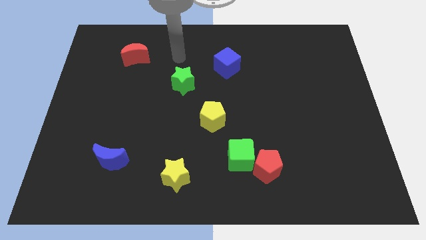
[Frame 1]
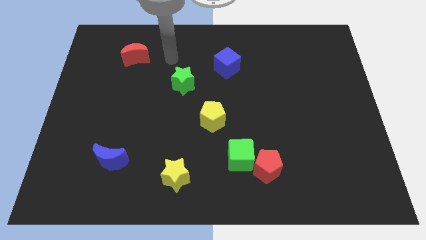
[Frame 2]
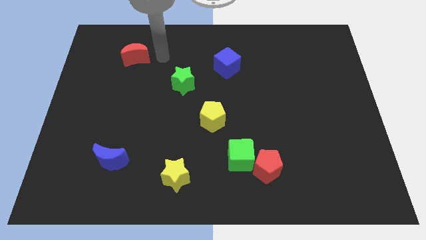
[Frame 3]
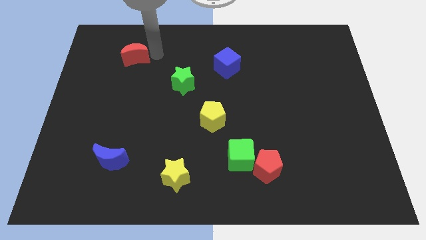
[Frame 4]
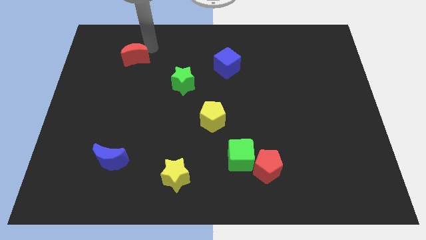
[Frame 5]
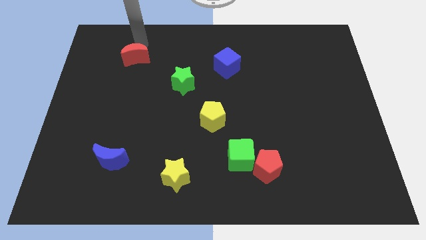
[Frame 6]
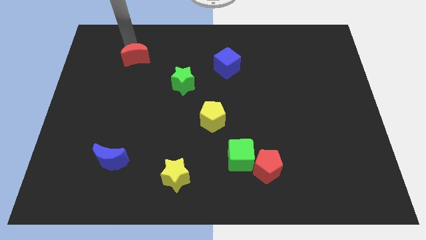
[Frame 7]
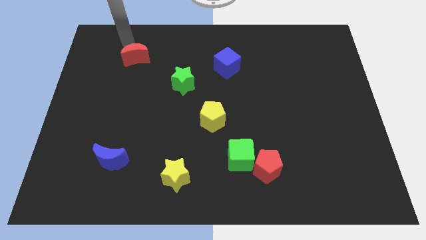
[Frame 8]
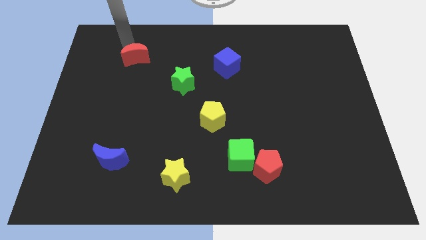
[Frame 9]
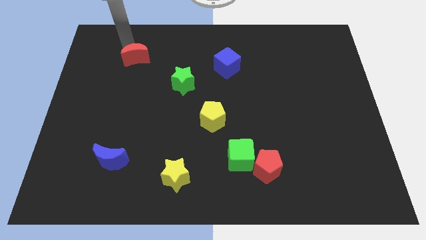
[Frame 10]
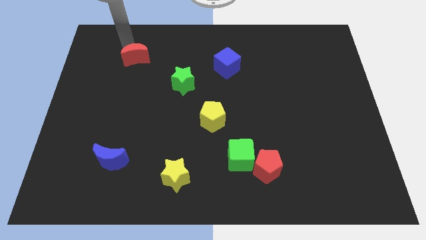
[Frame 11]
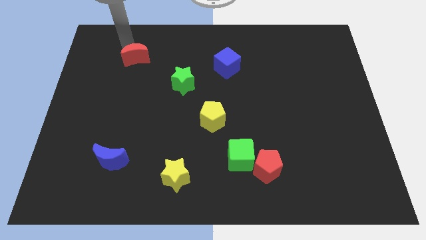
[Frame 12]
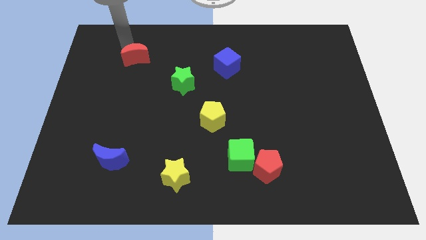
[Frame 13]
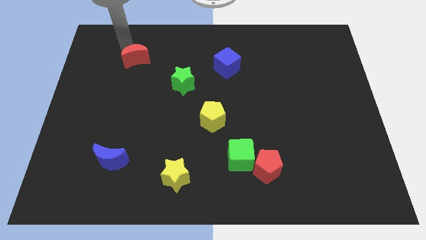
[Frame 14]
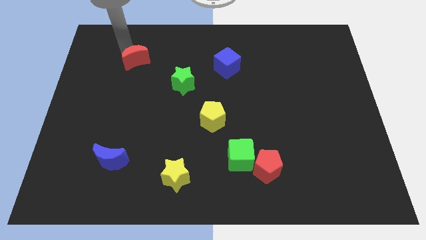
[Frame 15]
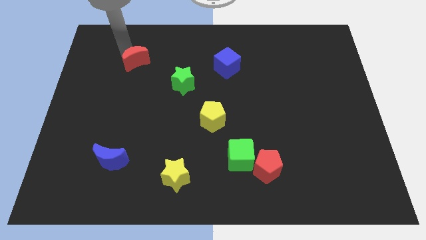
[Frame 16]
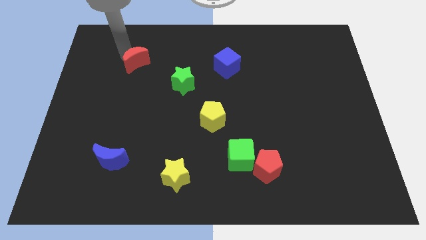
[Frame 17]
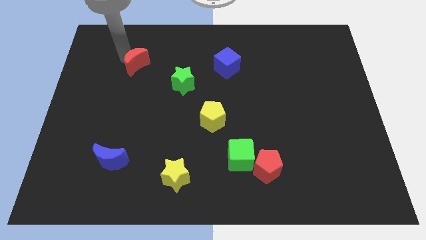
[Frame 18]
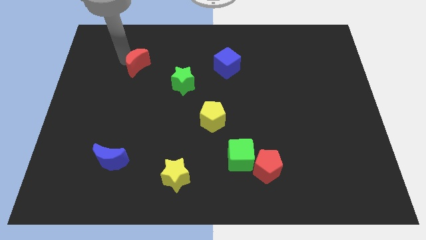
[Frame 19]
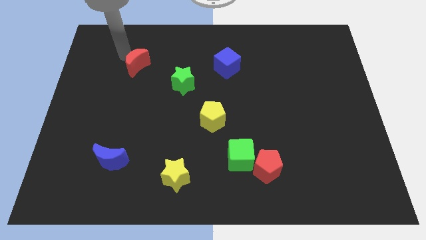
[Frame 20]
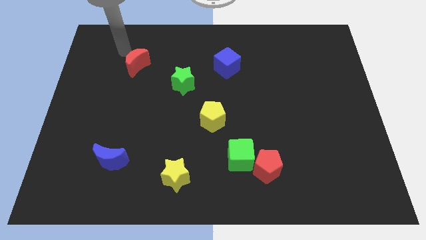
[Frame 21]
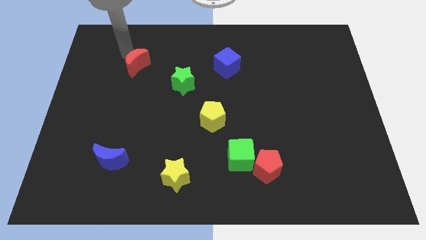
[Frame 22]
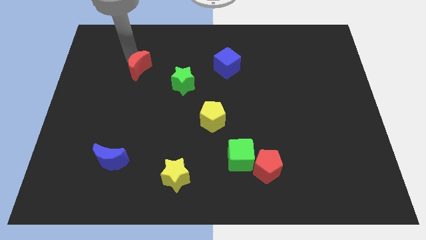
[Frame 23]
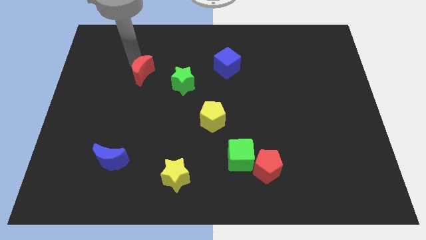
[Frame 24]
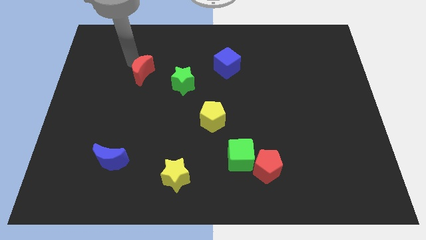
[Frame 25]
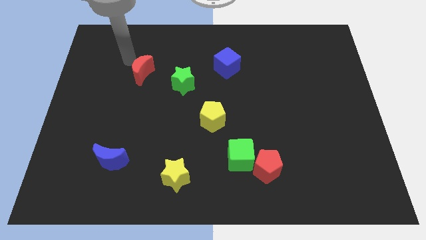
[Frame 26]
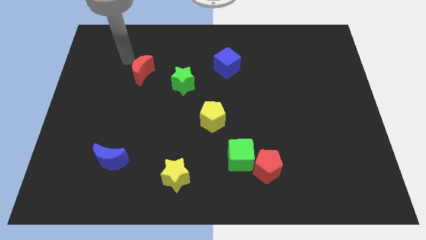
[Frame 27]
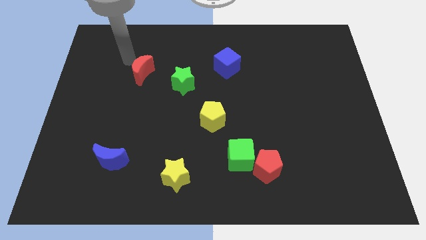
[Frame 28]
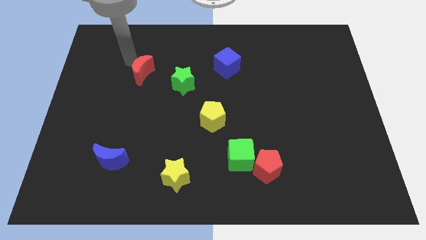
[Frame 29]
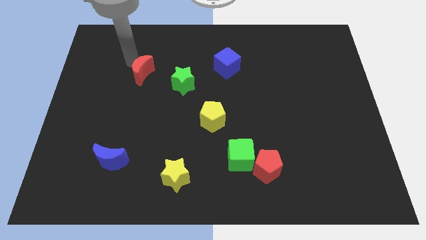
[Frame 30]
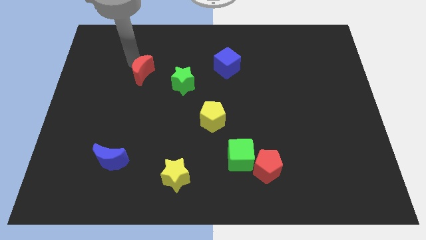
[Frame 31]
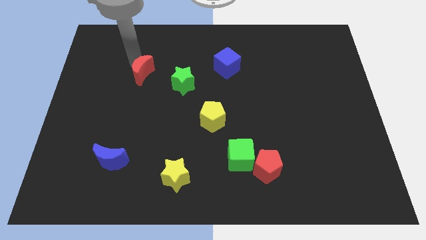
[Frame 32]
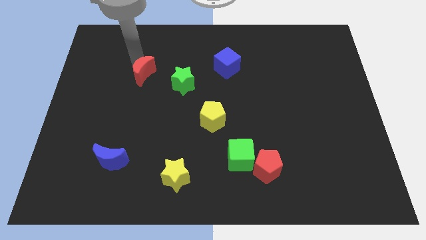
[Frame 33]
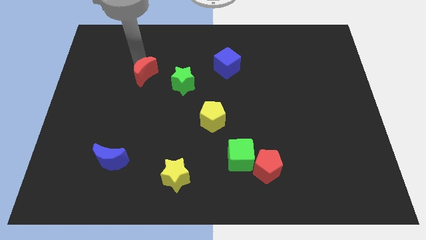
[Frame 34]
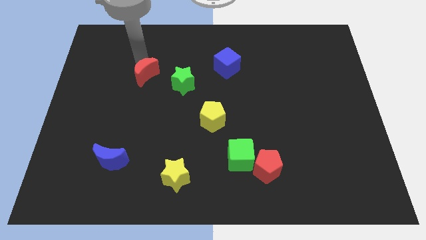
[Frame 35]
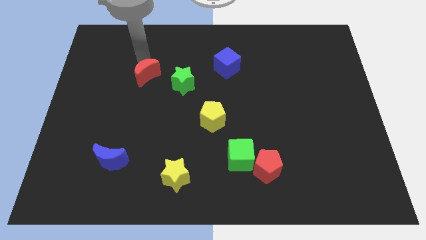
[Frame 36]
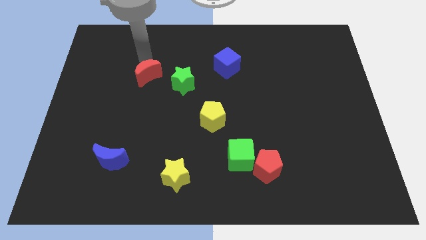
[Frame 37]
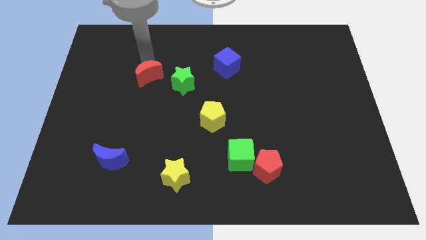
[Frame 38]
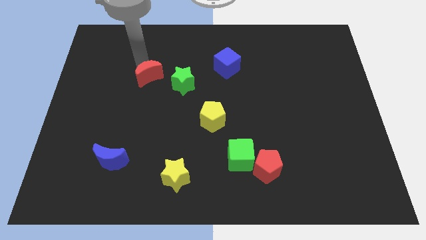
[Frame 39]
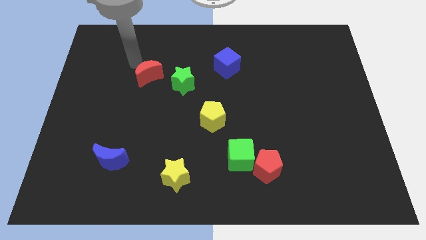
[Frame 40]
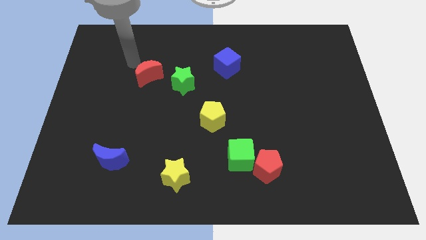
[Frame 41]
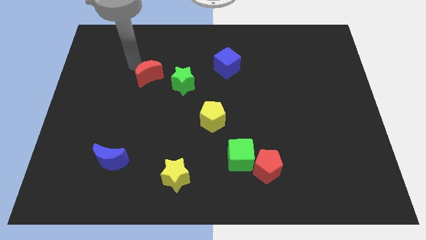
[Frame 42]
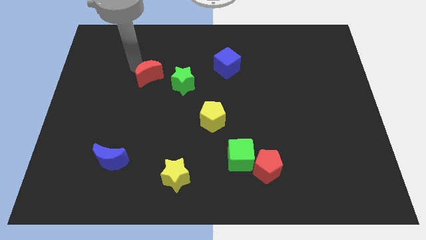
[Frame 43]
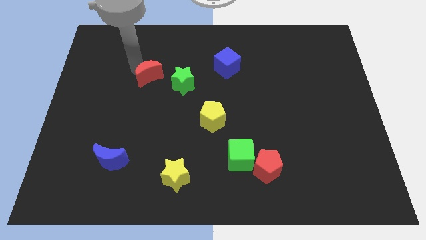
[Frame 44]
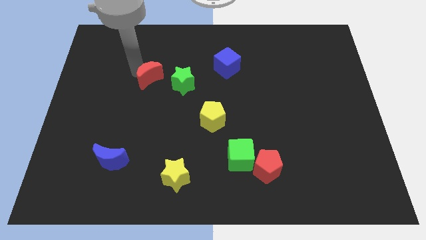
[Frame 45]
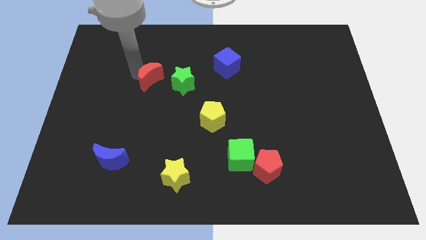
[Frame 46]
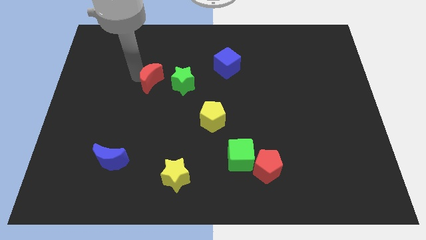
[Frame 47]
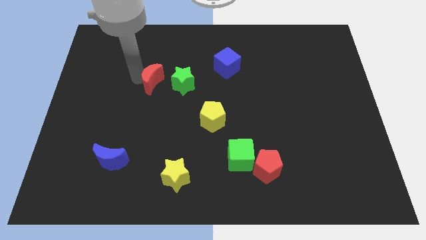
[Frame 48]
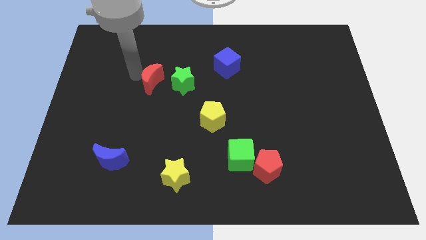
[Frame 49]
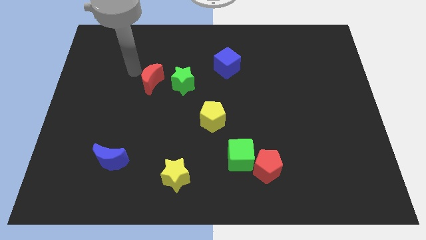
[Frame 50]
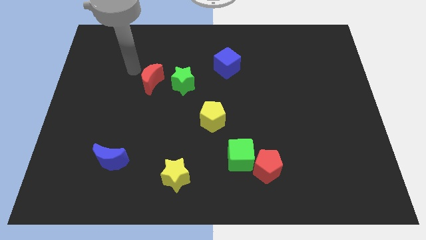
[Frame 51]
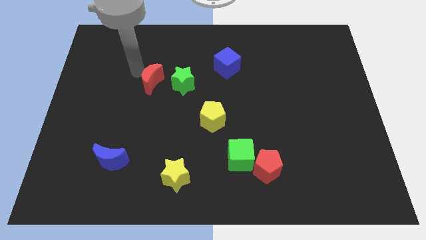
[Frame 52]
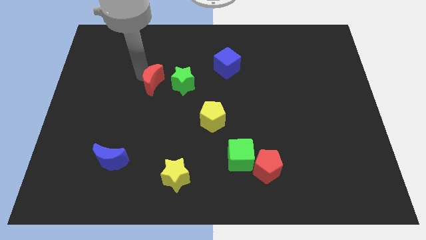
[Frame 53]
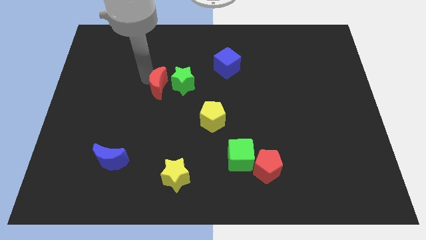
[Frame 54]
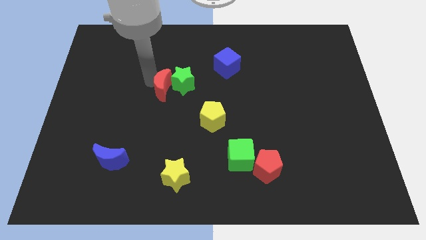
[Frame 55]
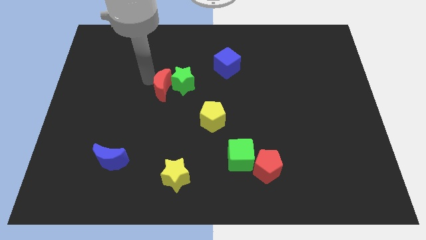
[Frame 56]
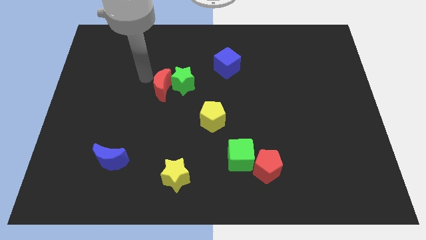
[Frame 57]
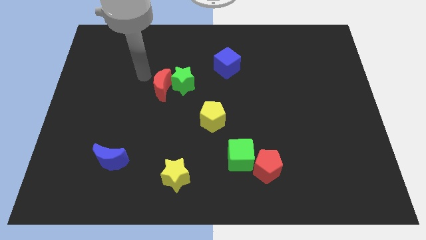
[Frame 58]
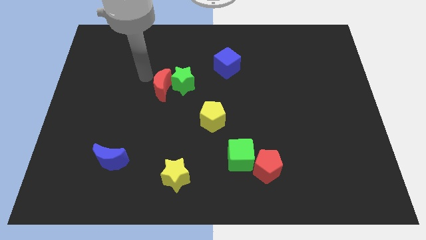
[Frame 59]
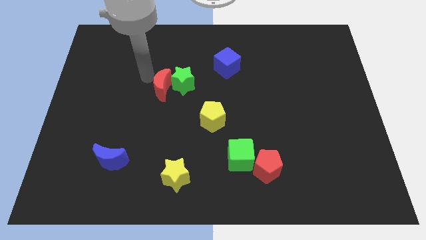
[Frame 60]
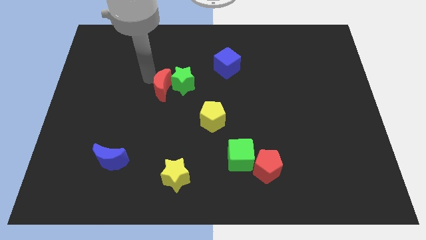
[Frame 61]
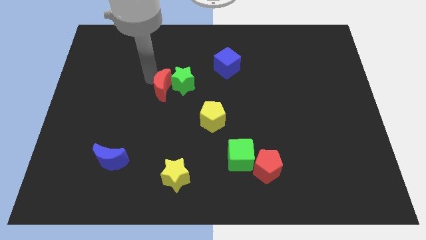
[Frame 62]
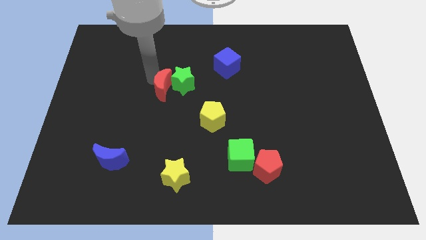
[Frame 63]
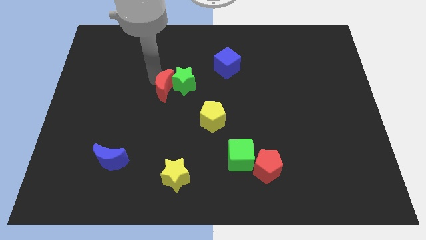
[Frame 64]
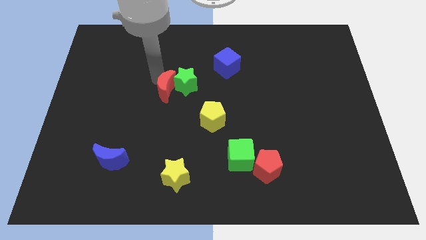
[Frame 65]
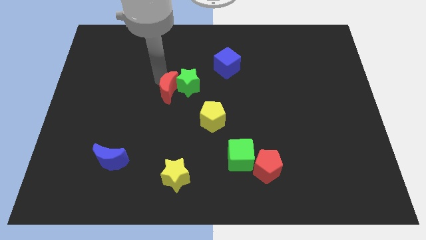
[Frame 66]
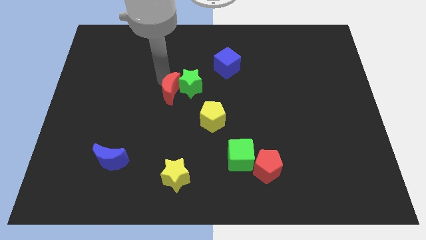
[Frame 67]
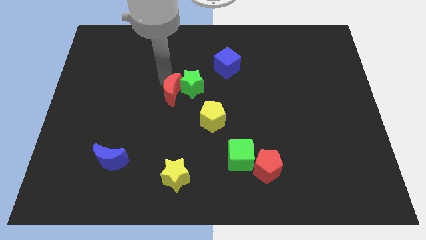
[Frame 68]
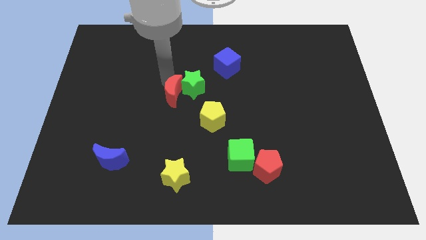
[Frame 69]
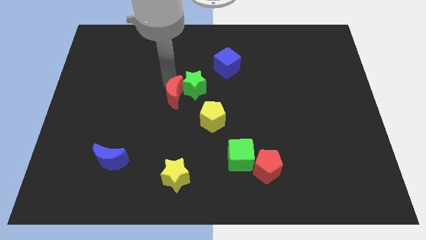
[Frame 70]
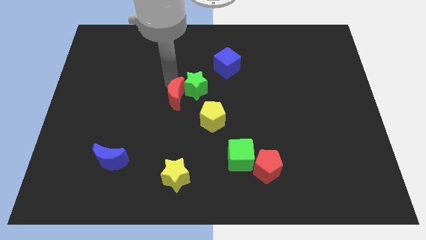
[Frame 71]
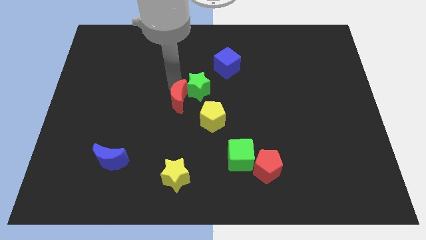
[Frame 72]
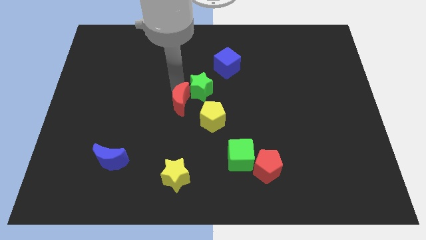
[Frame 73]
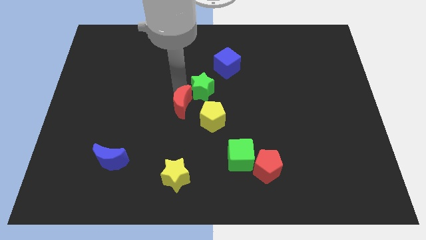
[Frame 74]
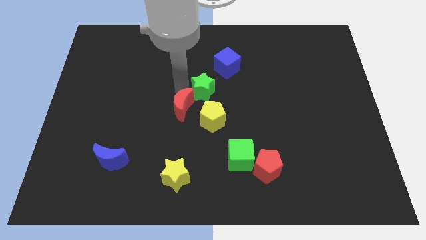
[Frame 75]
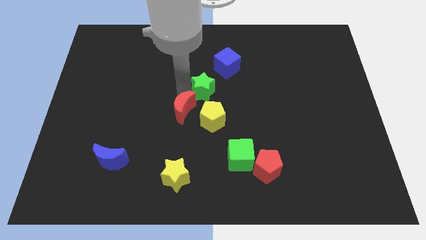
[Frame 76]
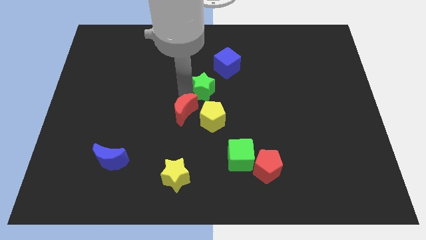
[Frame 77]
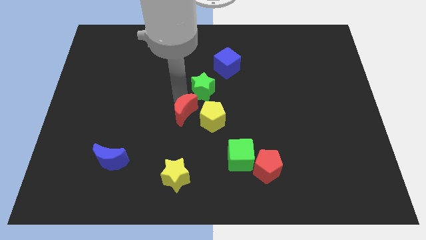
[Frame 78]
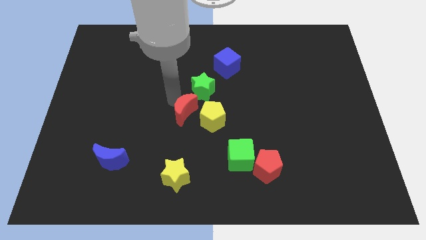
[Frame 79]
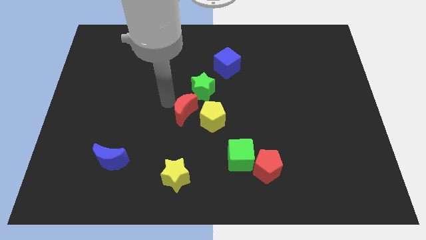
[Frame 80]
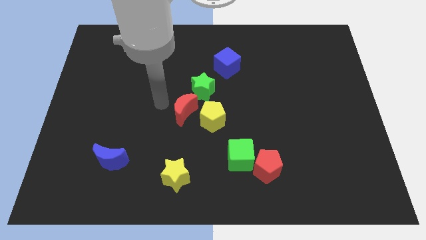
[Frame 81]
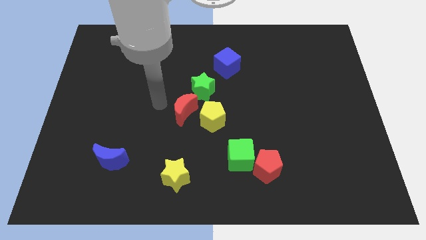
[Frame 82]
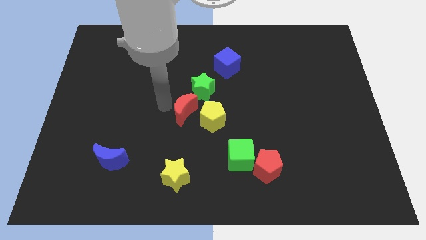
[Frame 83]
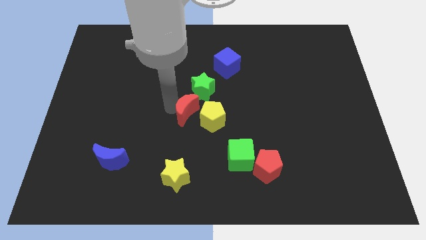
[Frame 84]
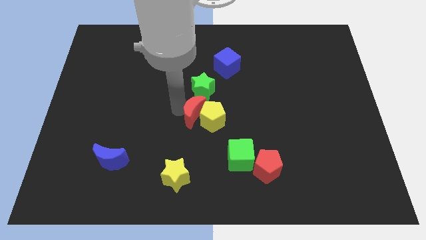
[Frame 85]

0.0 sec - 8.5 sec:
slide the red moon next to the yellow pentagon
